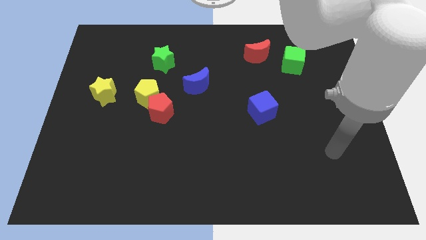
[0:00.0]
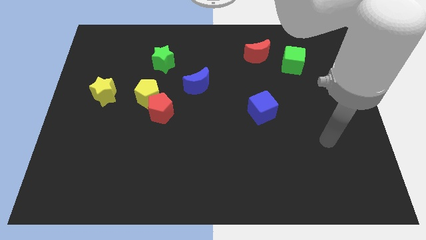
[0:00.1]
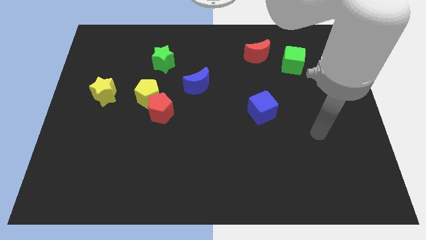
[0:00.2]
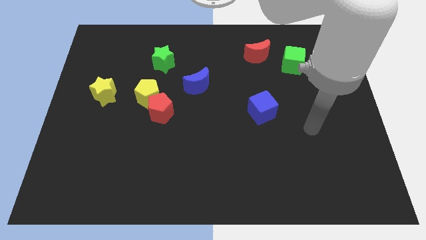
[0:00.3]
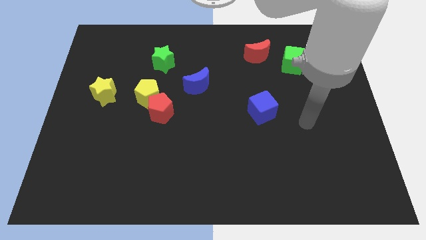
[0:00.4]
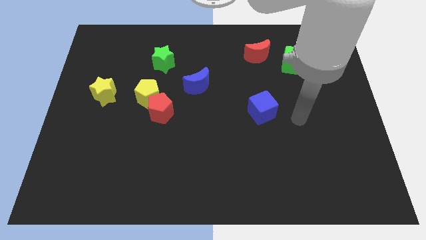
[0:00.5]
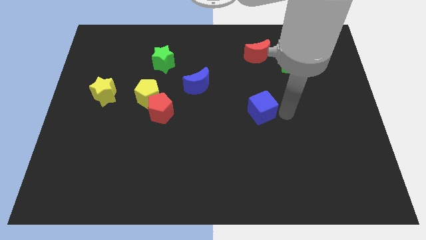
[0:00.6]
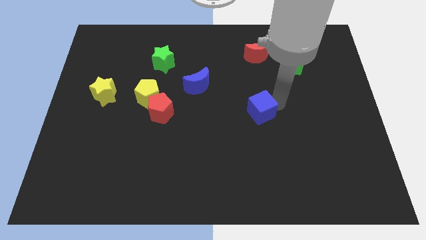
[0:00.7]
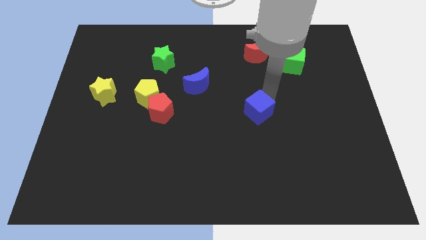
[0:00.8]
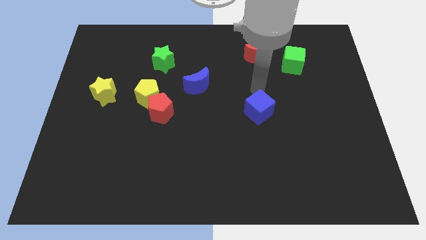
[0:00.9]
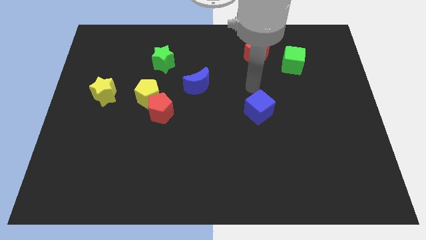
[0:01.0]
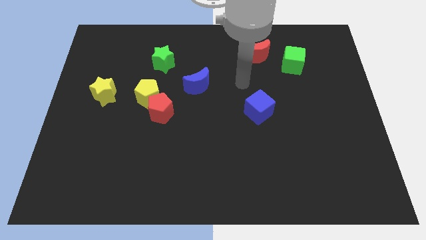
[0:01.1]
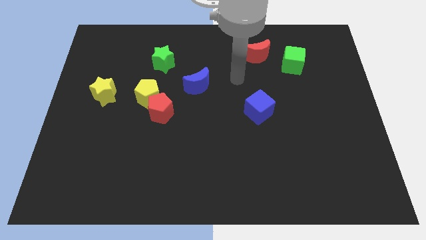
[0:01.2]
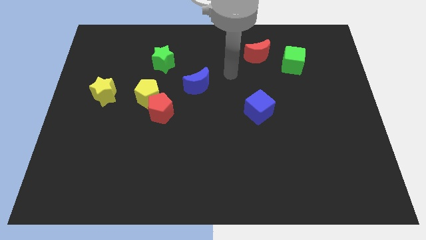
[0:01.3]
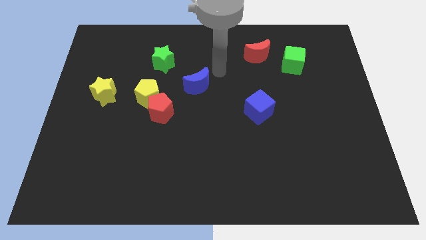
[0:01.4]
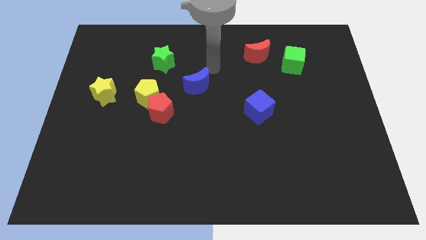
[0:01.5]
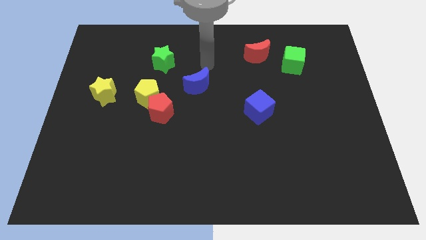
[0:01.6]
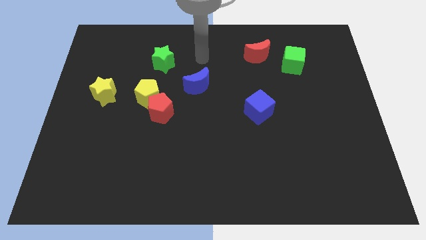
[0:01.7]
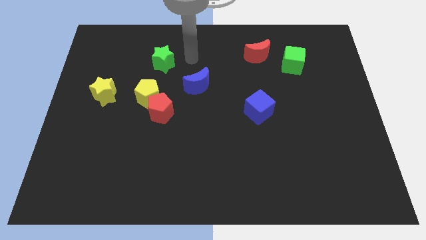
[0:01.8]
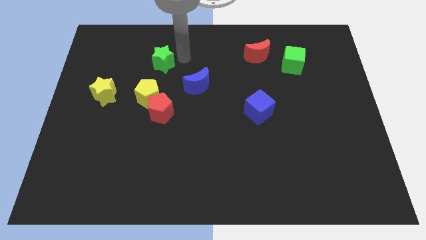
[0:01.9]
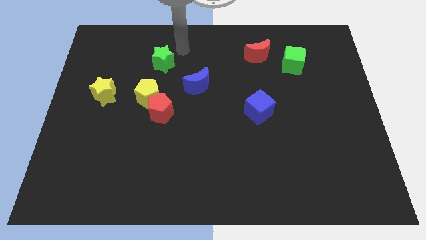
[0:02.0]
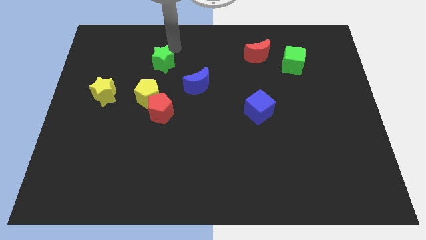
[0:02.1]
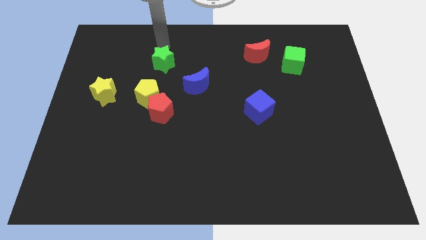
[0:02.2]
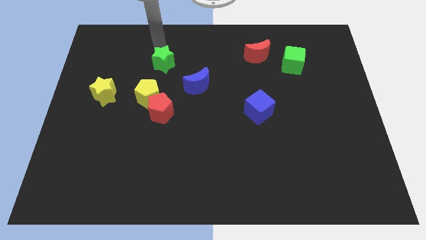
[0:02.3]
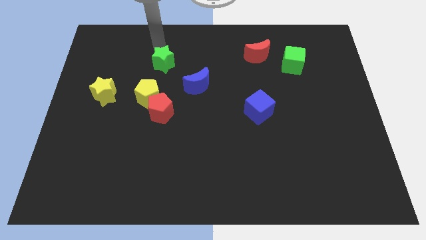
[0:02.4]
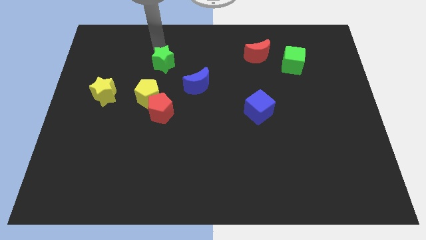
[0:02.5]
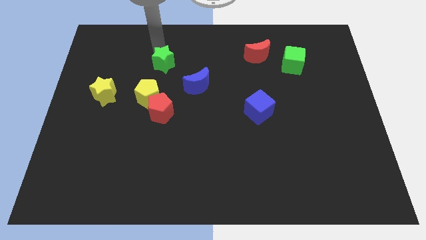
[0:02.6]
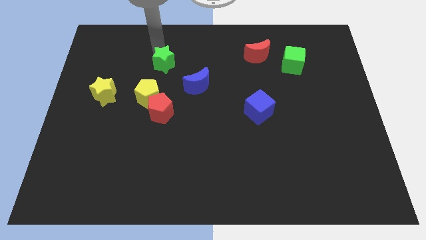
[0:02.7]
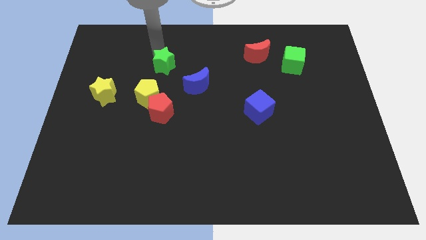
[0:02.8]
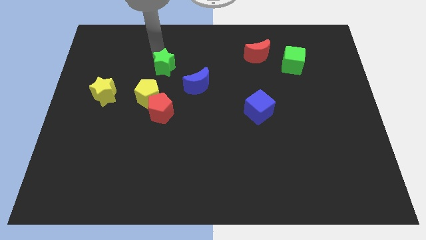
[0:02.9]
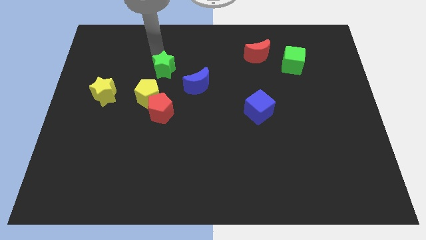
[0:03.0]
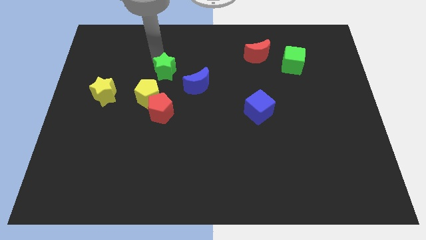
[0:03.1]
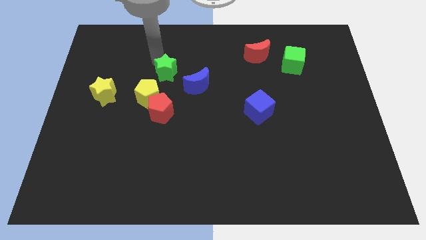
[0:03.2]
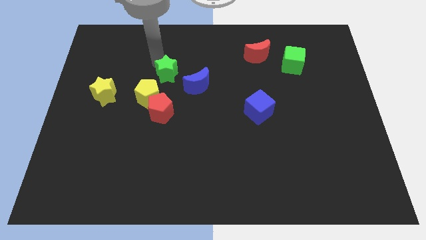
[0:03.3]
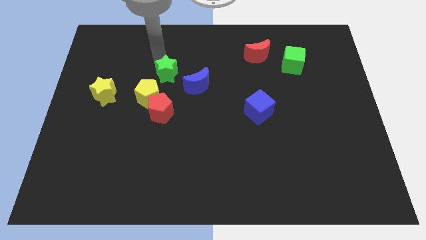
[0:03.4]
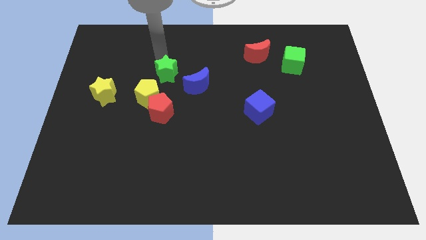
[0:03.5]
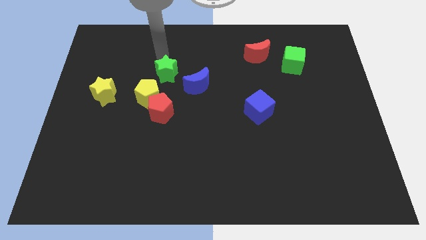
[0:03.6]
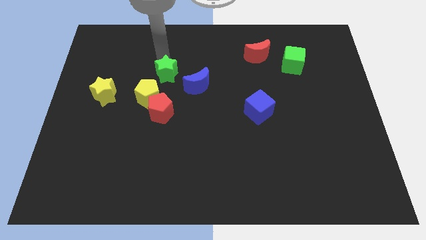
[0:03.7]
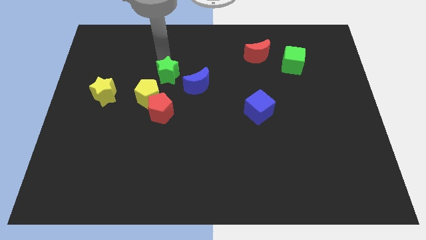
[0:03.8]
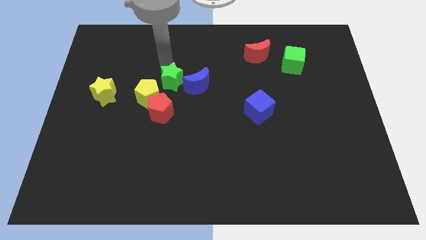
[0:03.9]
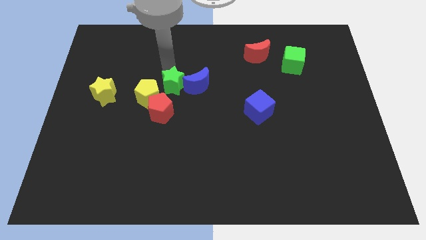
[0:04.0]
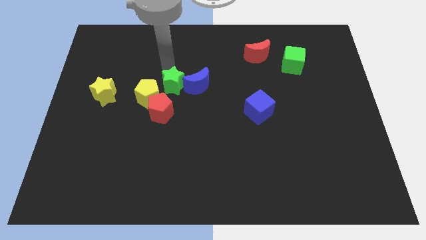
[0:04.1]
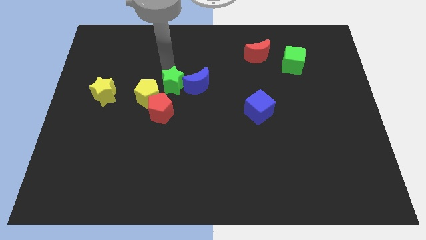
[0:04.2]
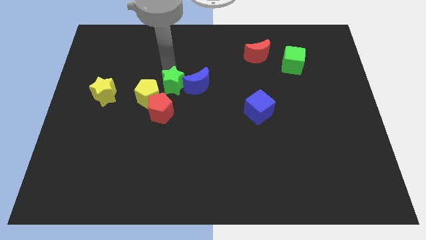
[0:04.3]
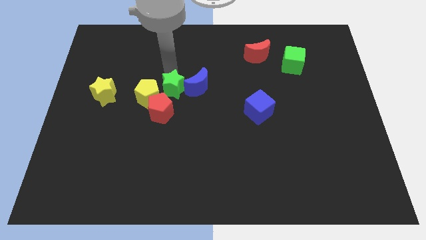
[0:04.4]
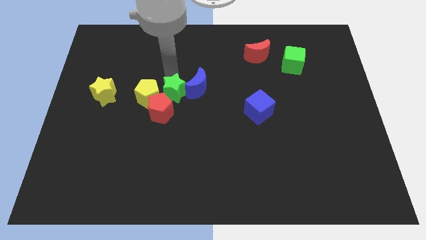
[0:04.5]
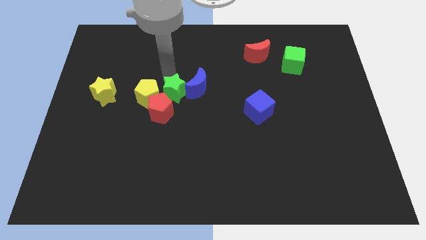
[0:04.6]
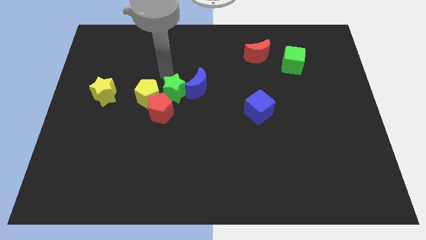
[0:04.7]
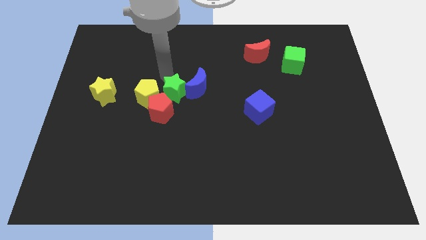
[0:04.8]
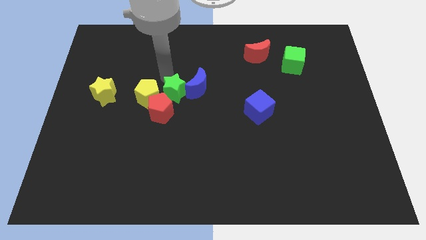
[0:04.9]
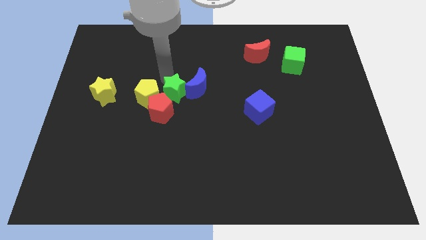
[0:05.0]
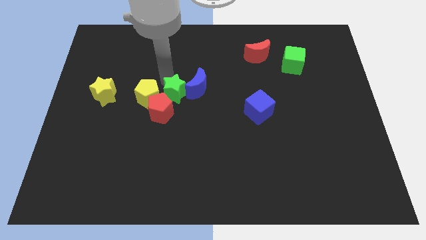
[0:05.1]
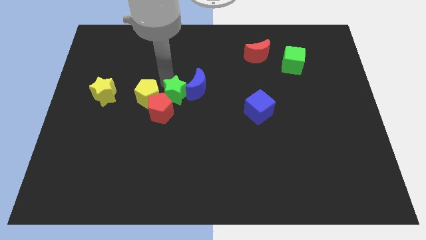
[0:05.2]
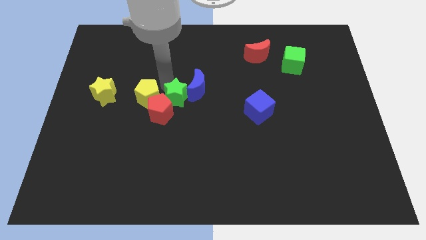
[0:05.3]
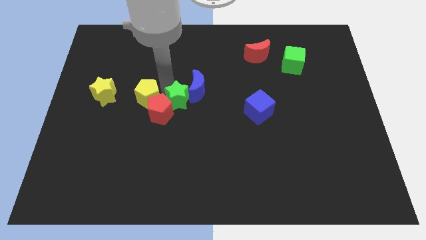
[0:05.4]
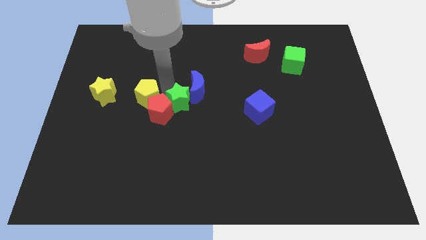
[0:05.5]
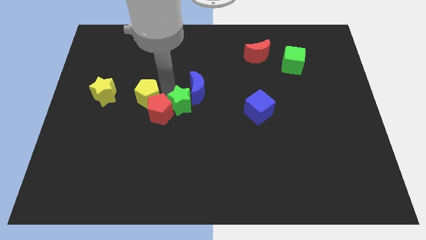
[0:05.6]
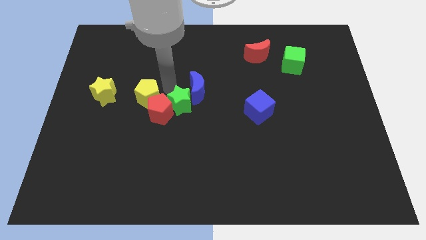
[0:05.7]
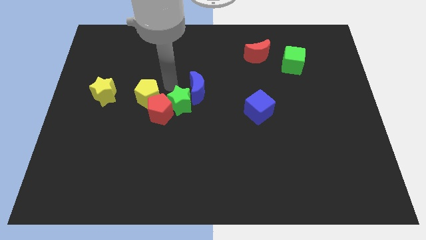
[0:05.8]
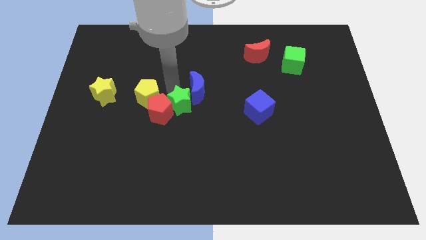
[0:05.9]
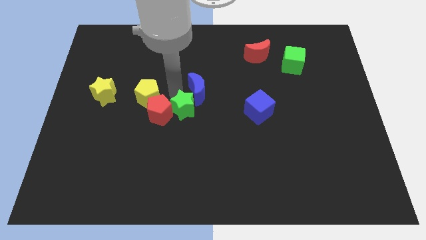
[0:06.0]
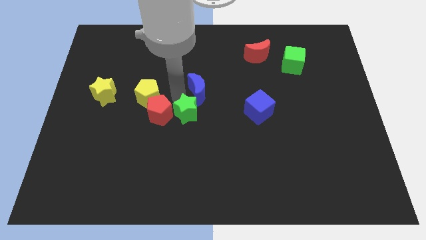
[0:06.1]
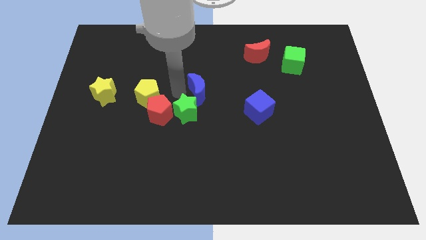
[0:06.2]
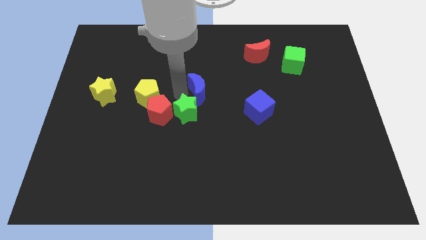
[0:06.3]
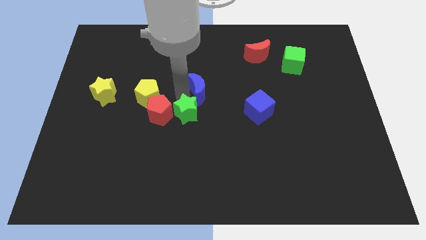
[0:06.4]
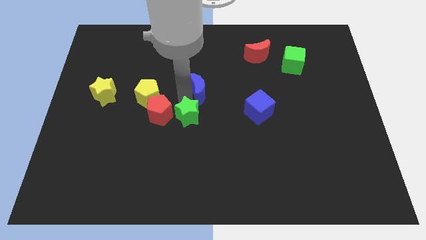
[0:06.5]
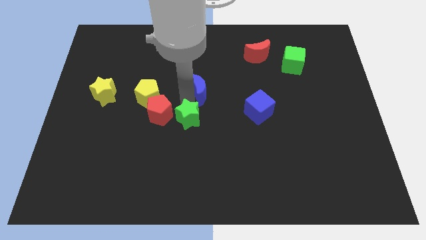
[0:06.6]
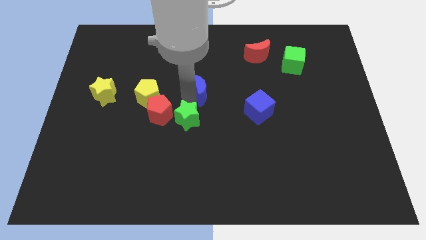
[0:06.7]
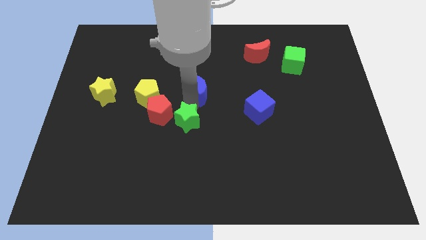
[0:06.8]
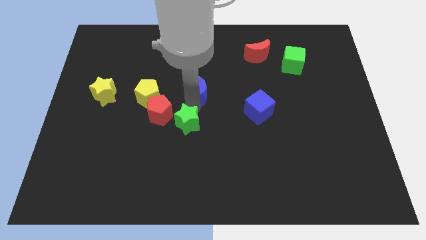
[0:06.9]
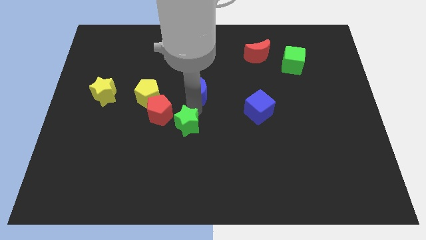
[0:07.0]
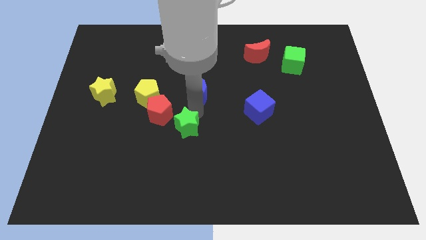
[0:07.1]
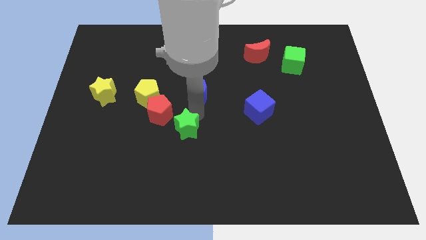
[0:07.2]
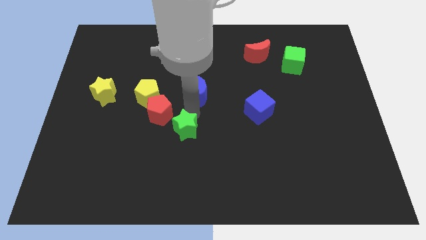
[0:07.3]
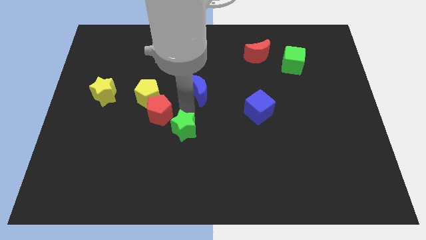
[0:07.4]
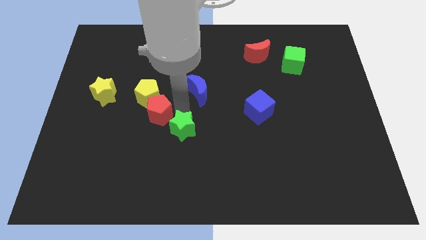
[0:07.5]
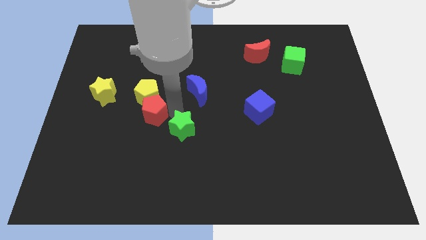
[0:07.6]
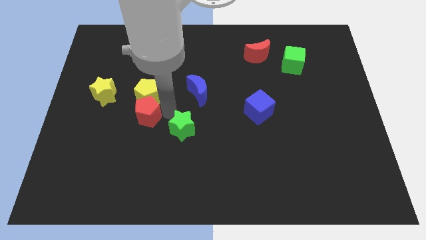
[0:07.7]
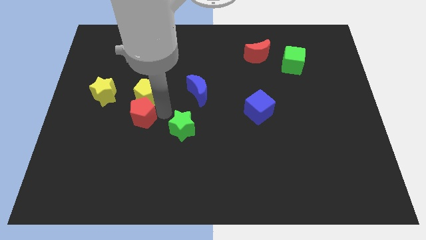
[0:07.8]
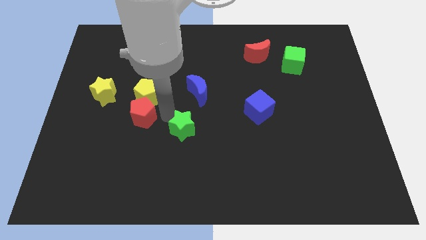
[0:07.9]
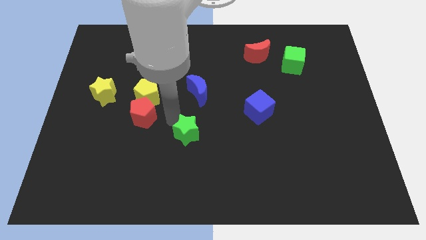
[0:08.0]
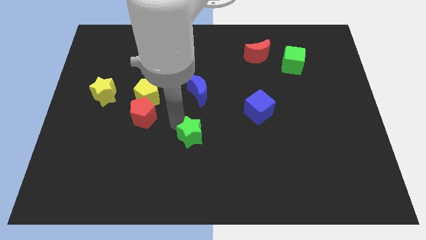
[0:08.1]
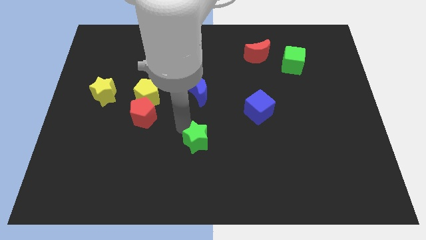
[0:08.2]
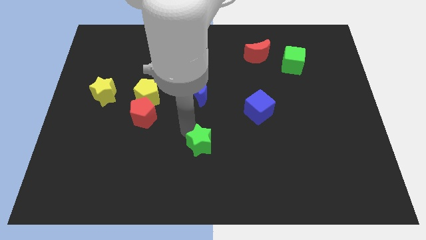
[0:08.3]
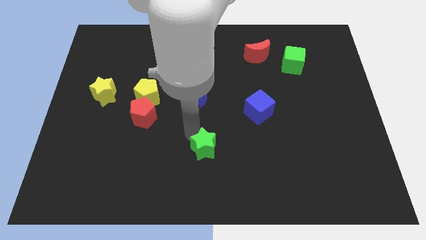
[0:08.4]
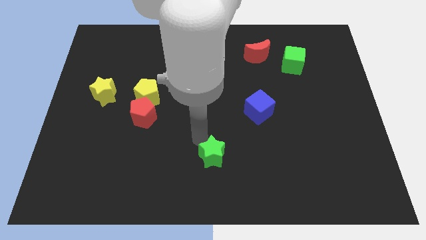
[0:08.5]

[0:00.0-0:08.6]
push the green star to the bottom side
